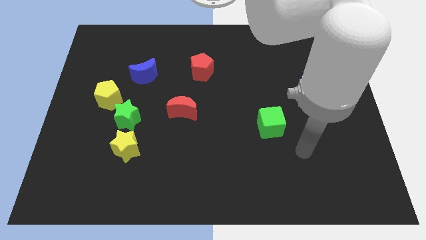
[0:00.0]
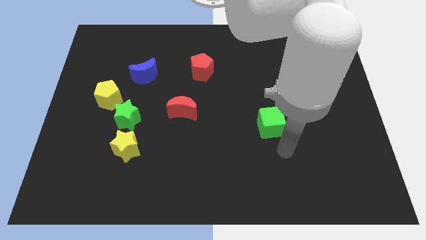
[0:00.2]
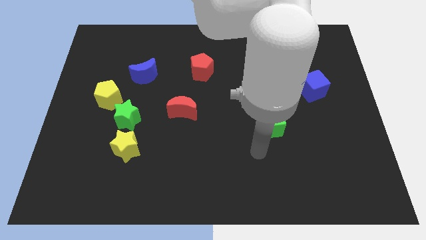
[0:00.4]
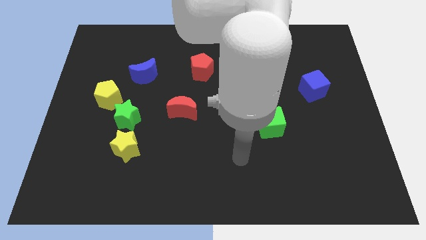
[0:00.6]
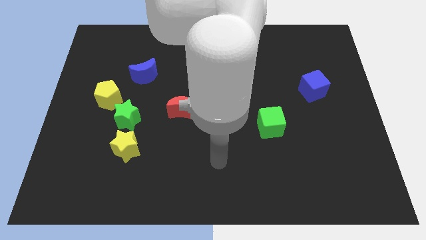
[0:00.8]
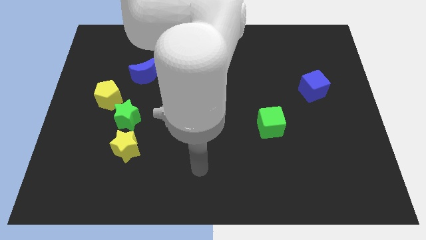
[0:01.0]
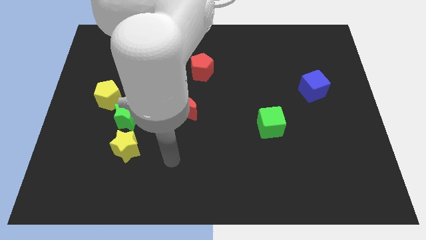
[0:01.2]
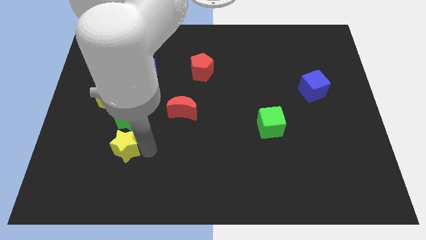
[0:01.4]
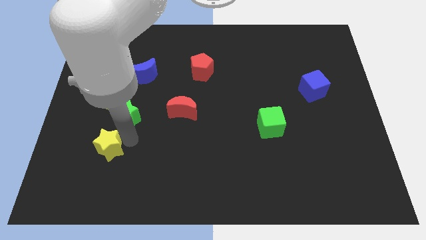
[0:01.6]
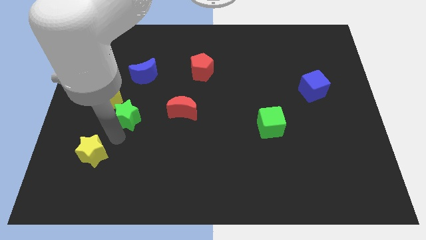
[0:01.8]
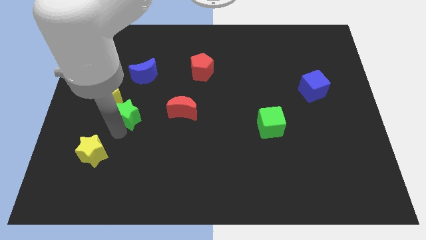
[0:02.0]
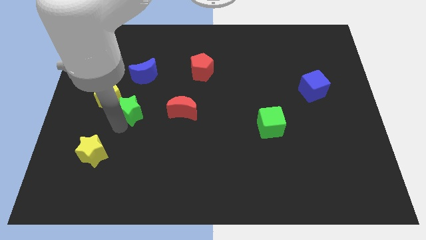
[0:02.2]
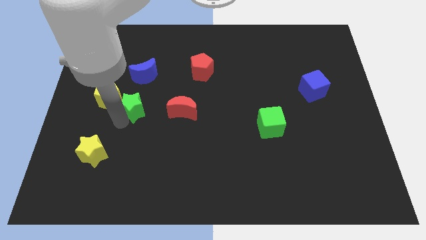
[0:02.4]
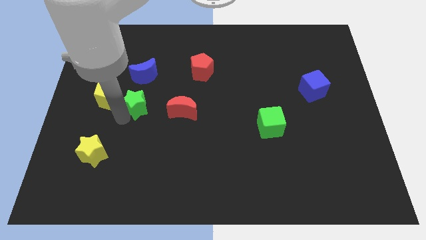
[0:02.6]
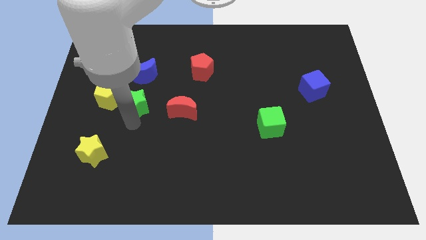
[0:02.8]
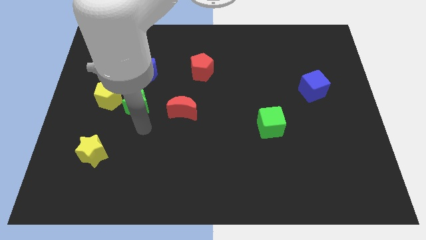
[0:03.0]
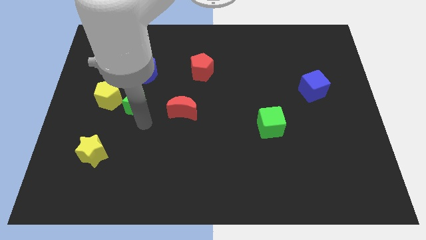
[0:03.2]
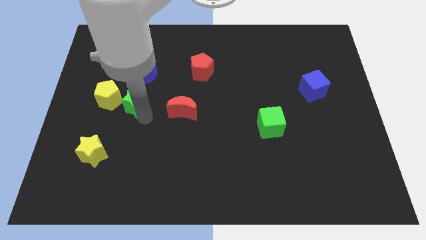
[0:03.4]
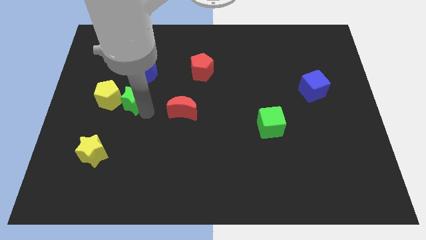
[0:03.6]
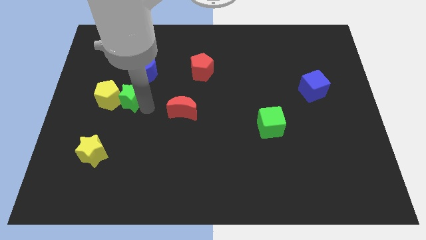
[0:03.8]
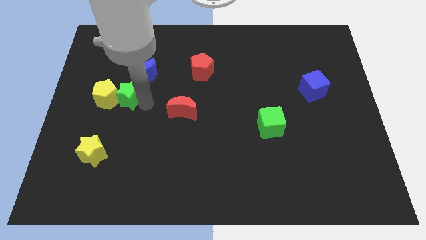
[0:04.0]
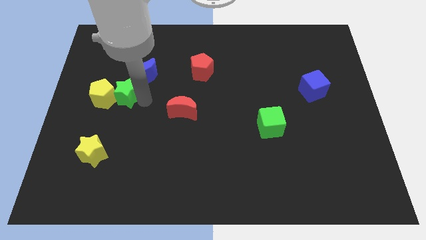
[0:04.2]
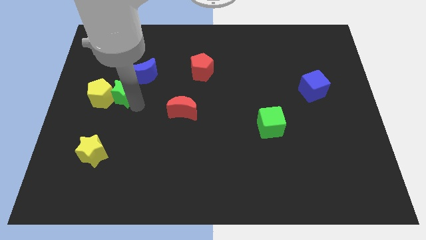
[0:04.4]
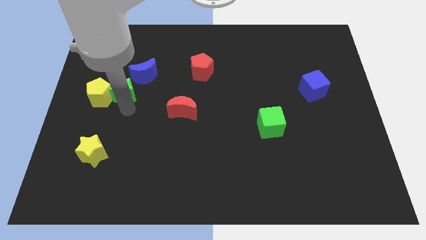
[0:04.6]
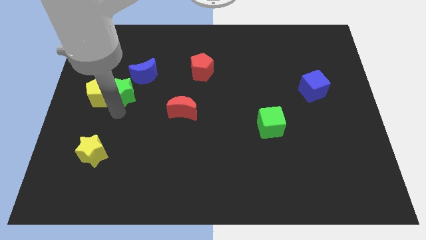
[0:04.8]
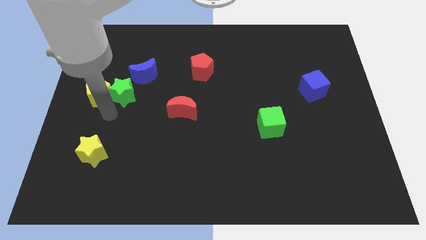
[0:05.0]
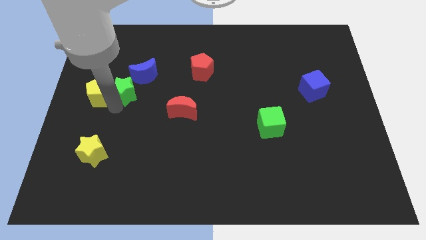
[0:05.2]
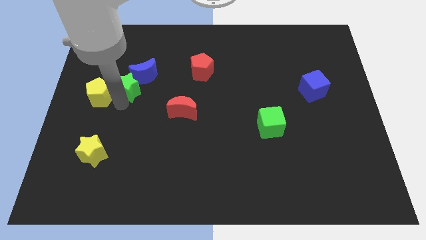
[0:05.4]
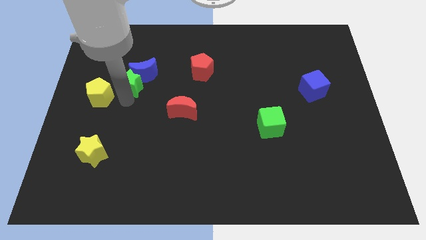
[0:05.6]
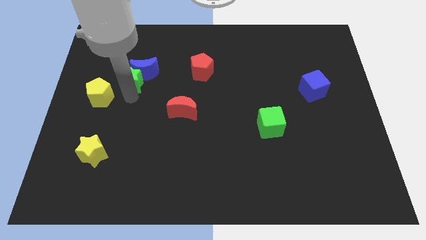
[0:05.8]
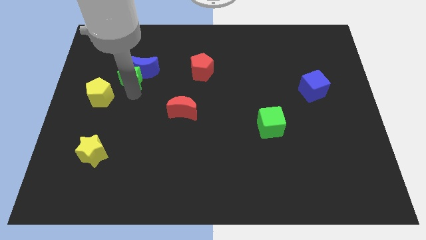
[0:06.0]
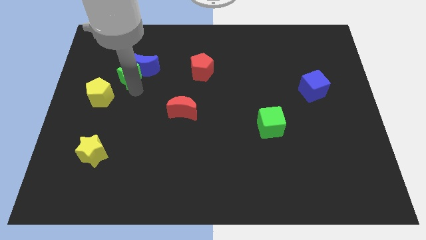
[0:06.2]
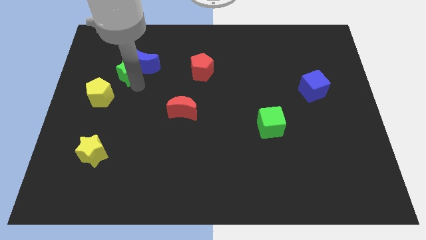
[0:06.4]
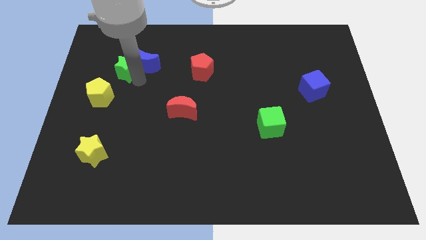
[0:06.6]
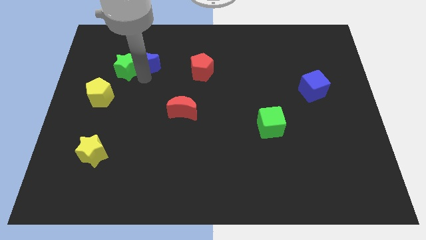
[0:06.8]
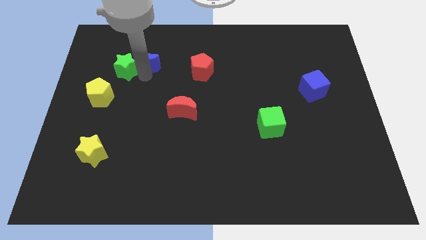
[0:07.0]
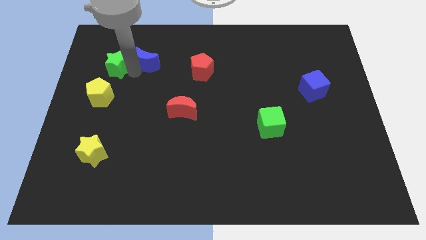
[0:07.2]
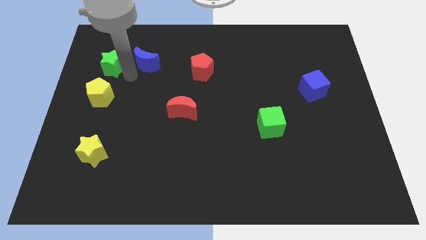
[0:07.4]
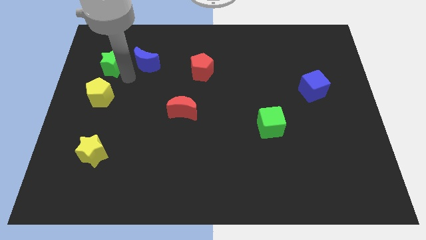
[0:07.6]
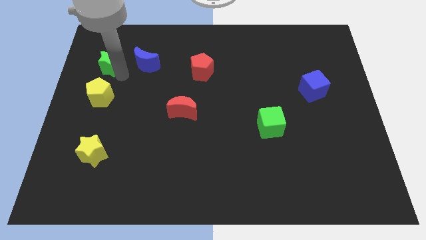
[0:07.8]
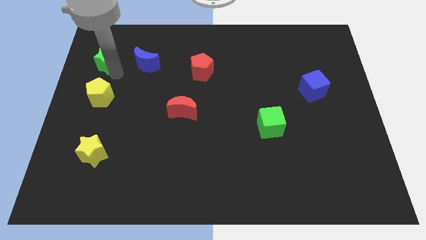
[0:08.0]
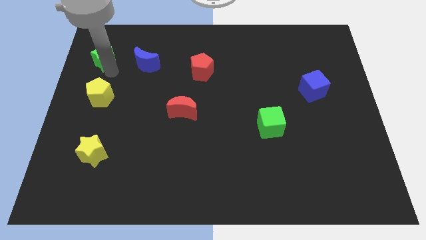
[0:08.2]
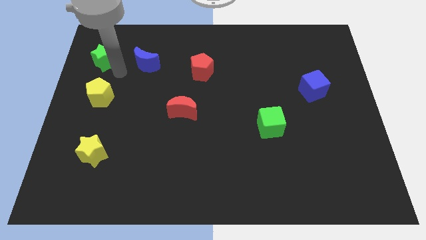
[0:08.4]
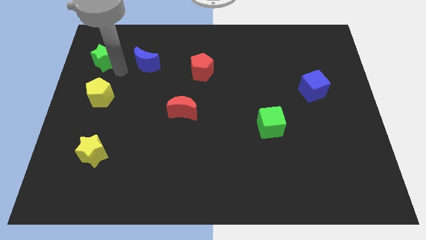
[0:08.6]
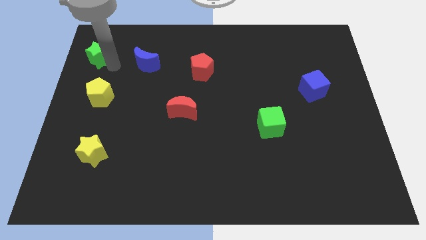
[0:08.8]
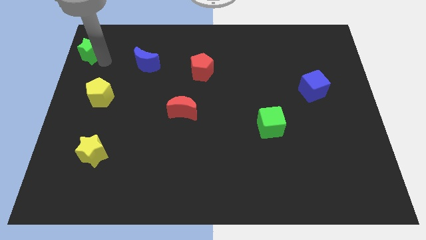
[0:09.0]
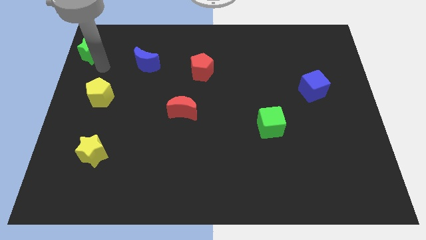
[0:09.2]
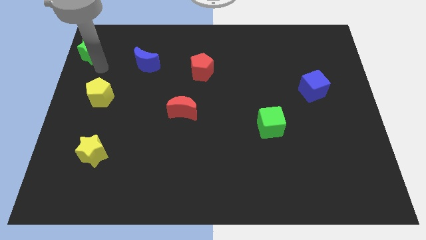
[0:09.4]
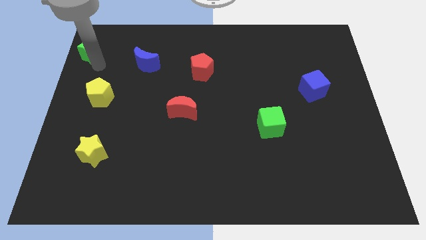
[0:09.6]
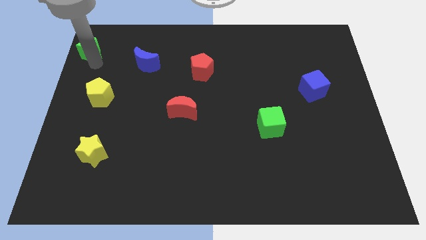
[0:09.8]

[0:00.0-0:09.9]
slide the green star to the top left corner

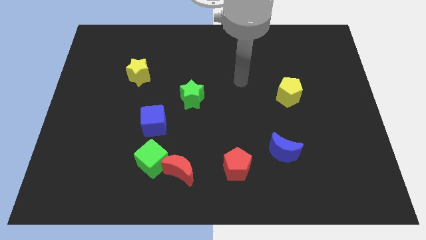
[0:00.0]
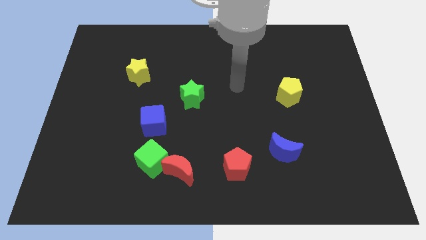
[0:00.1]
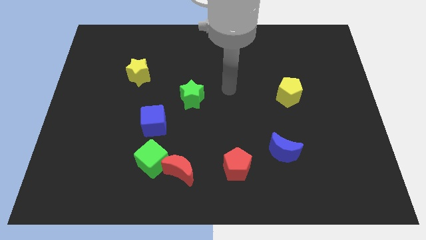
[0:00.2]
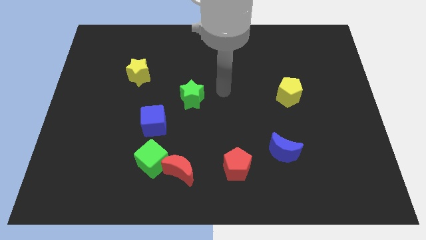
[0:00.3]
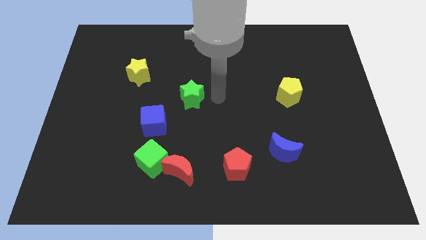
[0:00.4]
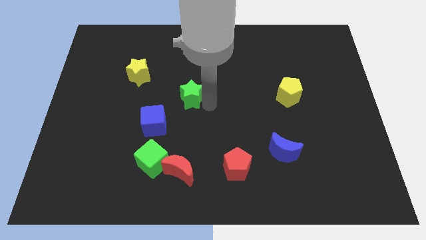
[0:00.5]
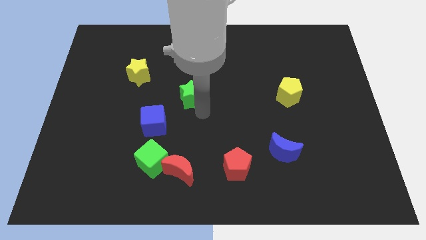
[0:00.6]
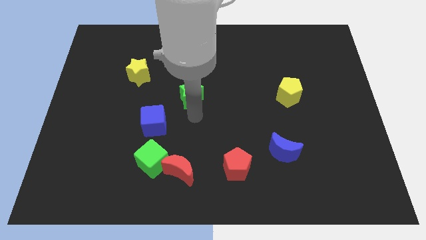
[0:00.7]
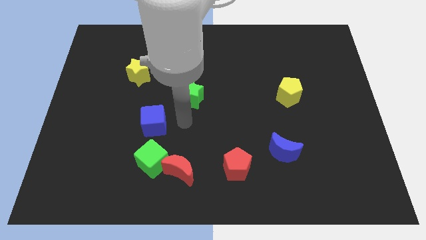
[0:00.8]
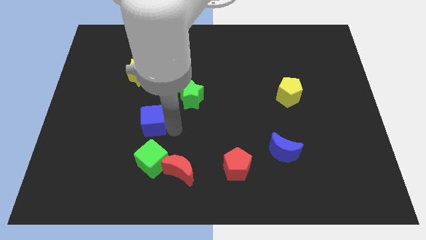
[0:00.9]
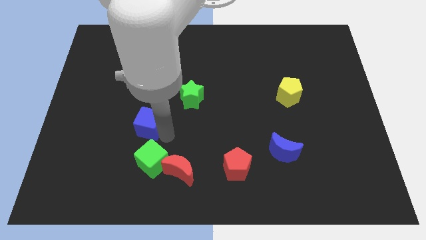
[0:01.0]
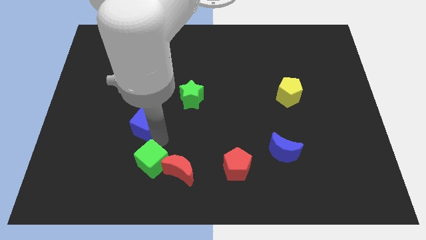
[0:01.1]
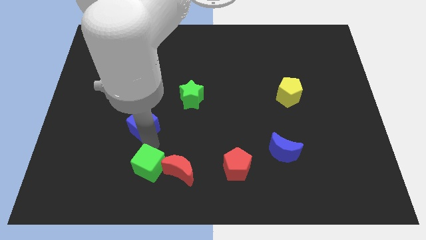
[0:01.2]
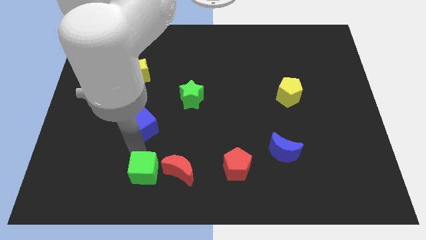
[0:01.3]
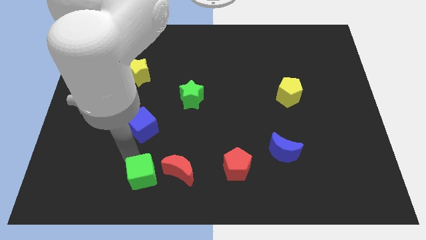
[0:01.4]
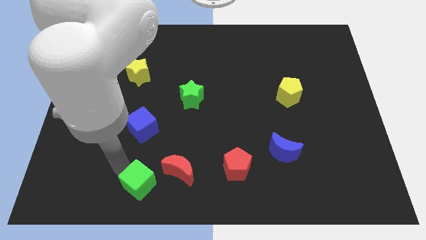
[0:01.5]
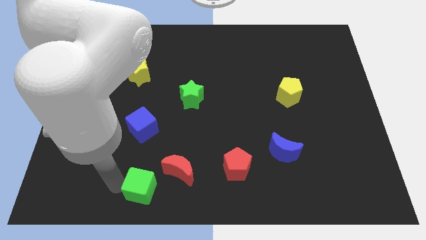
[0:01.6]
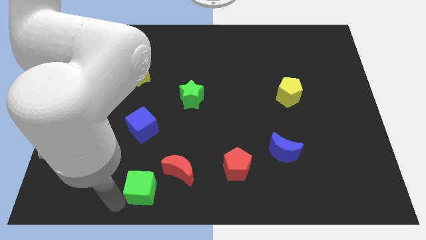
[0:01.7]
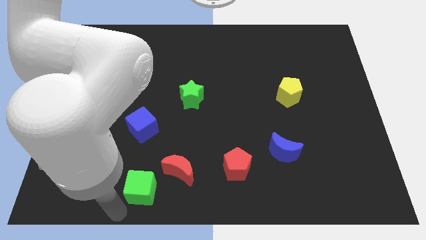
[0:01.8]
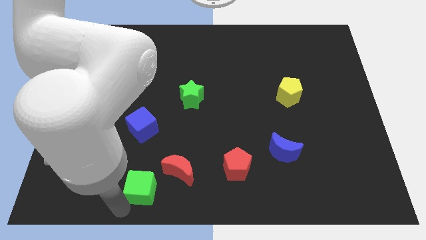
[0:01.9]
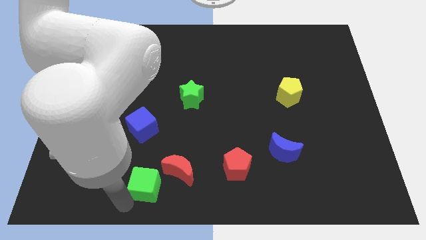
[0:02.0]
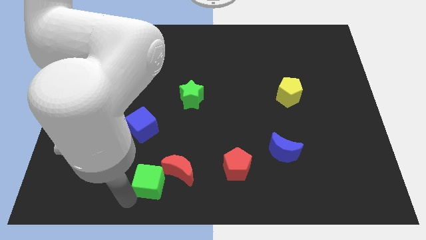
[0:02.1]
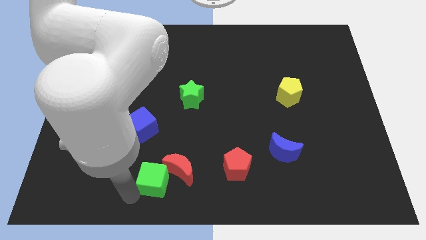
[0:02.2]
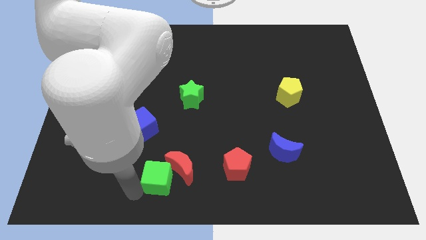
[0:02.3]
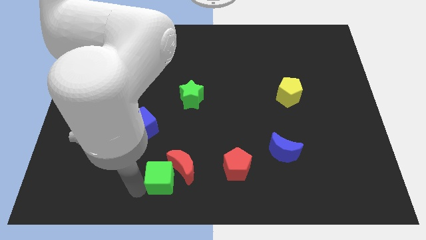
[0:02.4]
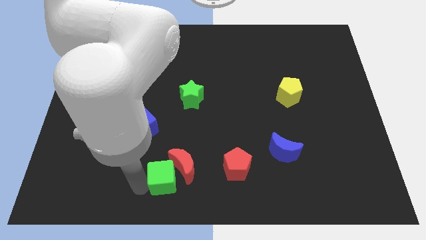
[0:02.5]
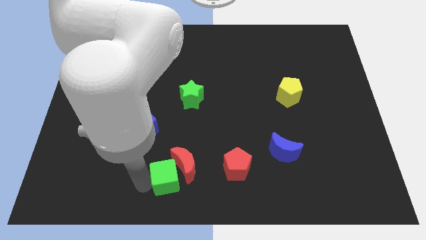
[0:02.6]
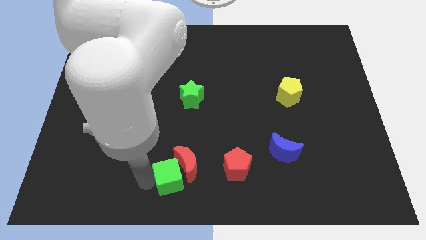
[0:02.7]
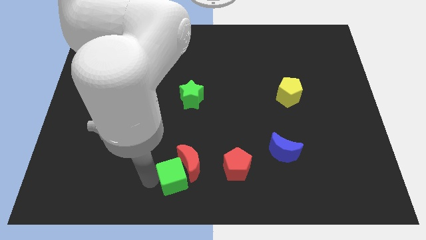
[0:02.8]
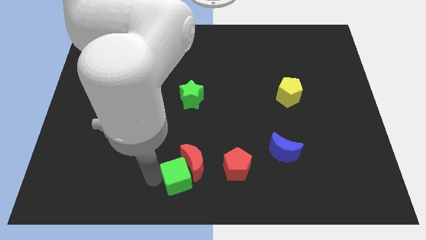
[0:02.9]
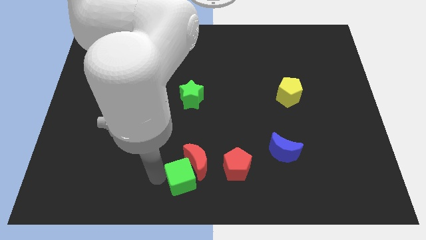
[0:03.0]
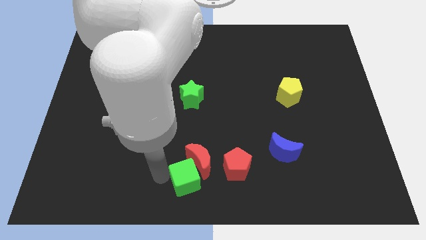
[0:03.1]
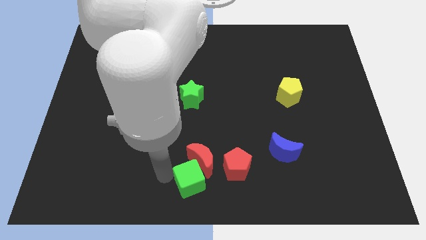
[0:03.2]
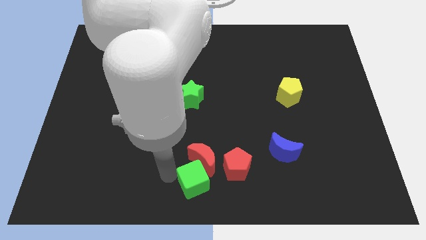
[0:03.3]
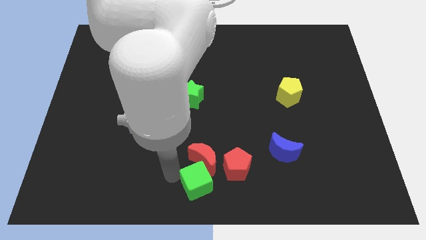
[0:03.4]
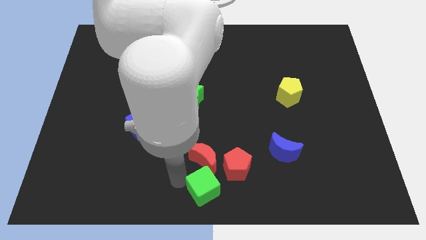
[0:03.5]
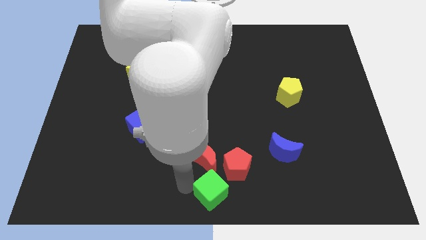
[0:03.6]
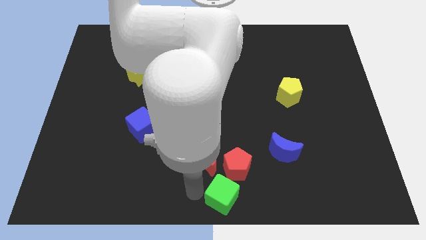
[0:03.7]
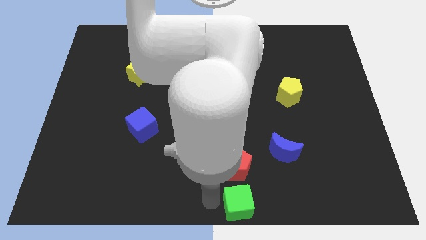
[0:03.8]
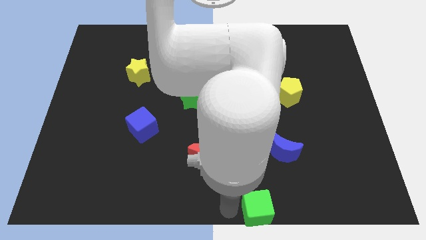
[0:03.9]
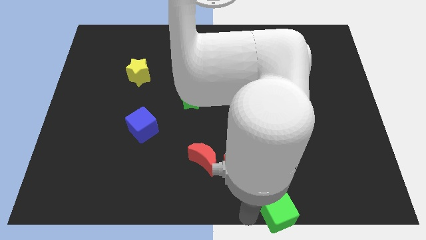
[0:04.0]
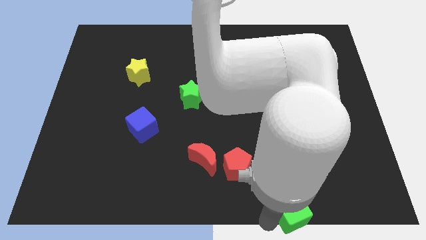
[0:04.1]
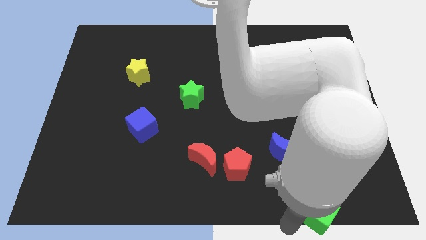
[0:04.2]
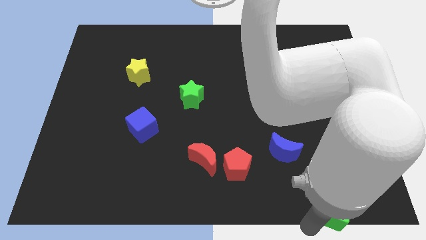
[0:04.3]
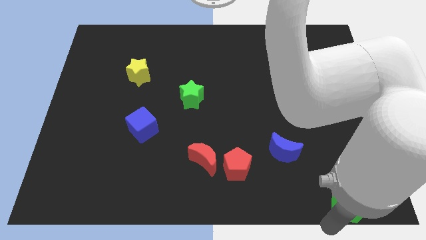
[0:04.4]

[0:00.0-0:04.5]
push the green cube to the bottom right
